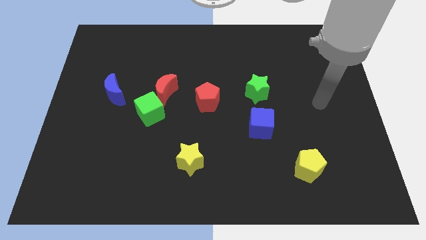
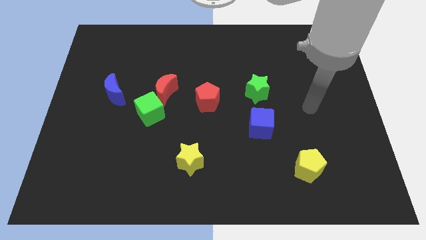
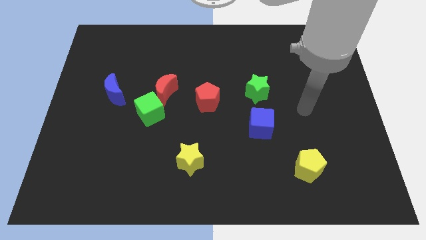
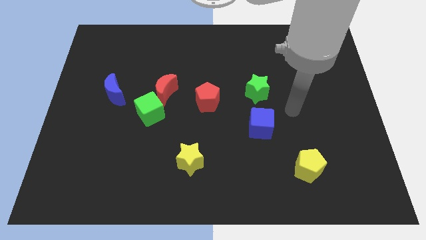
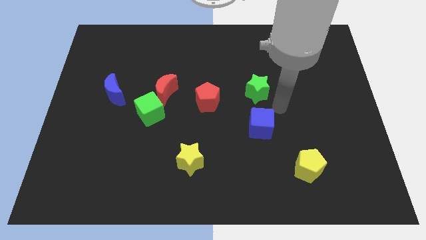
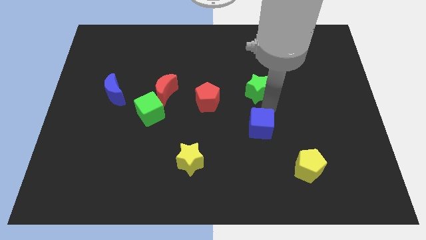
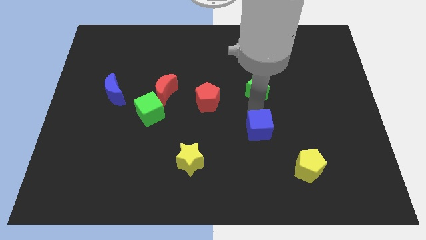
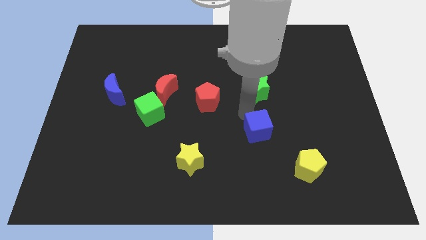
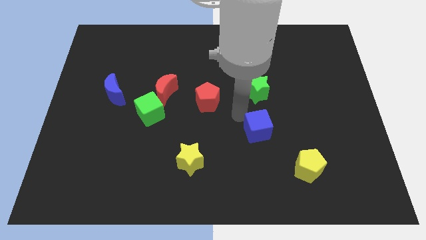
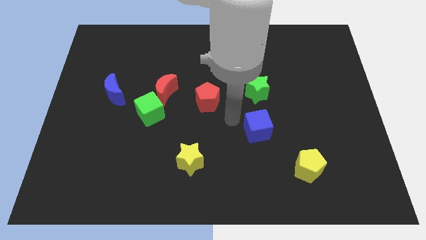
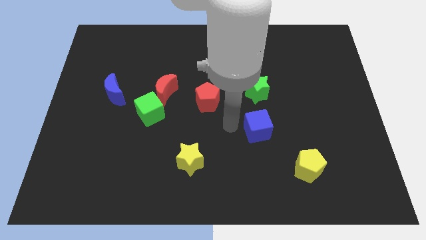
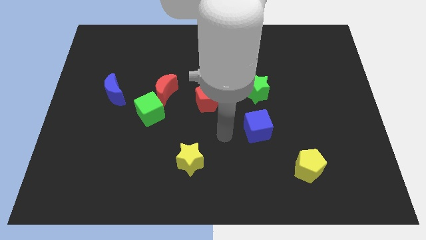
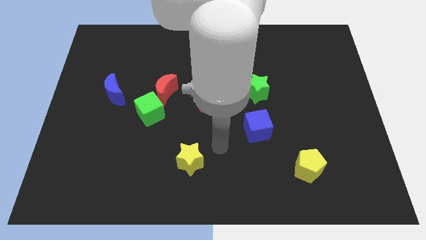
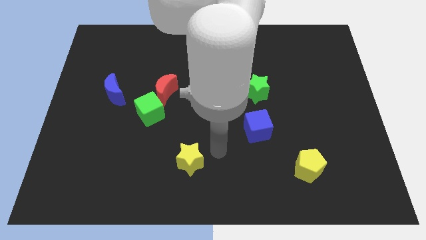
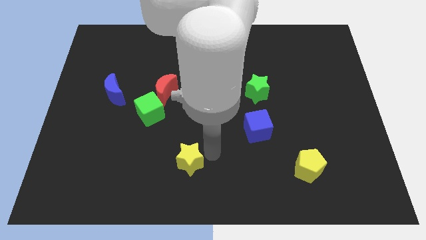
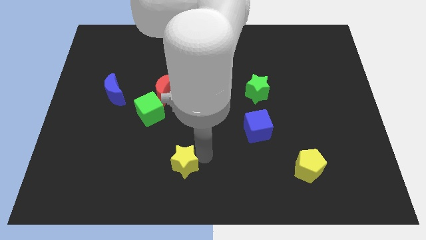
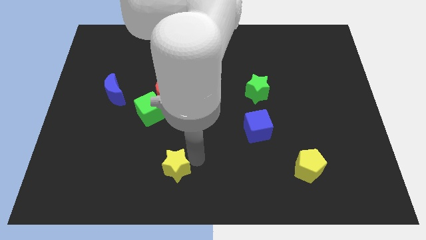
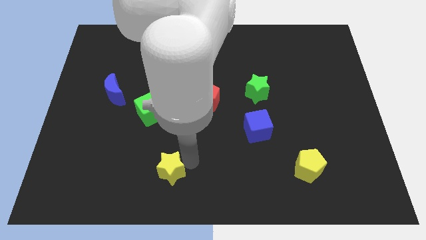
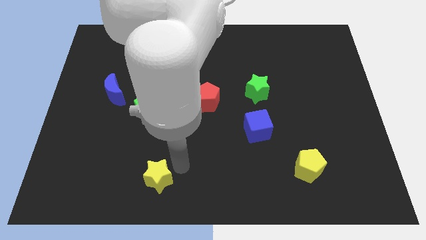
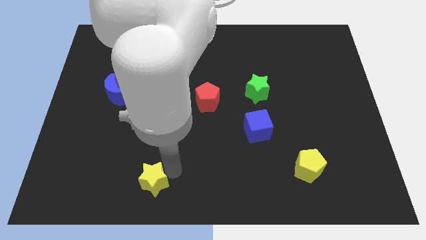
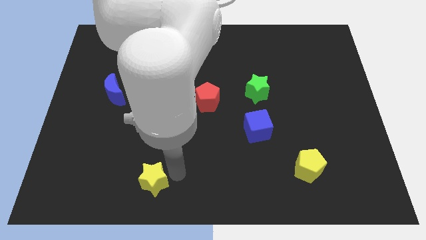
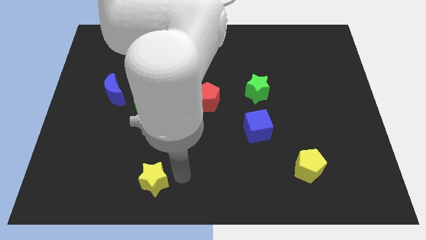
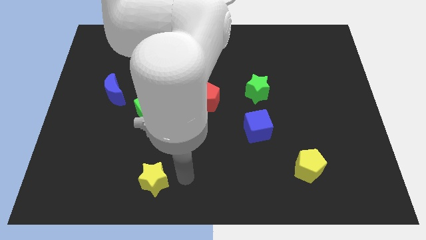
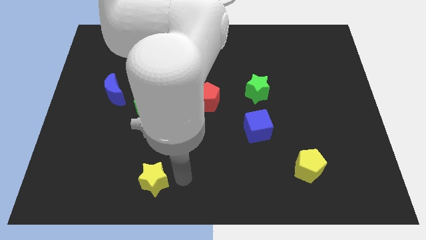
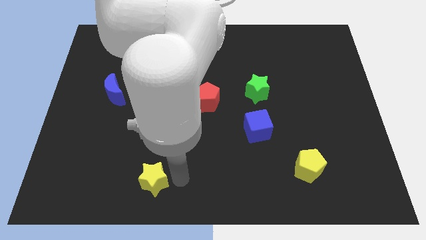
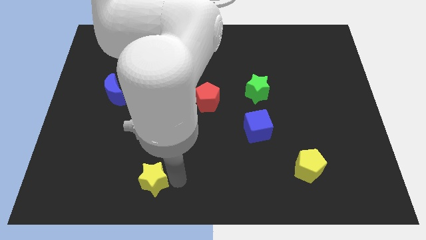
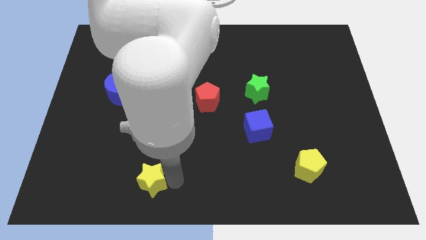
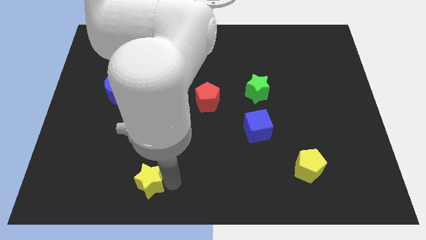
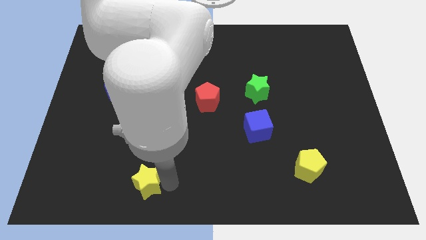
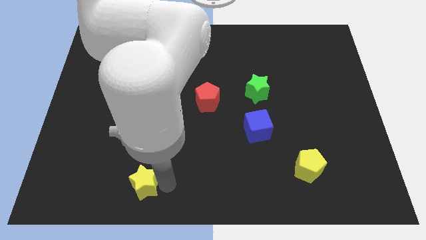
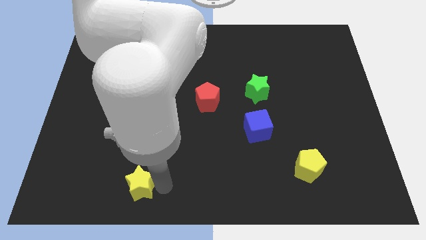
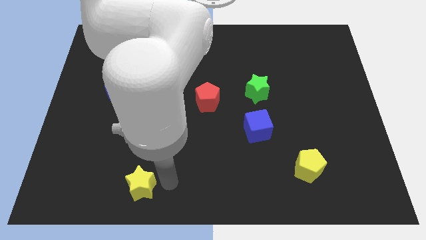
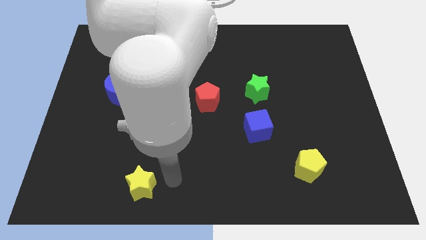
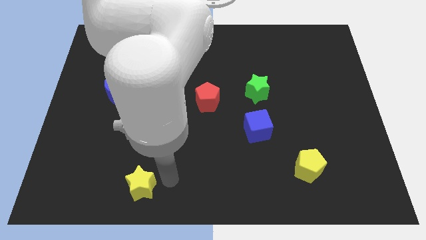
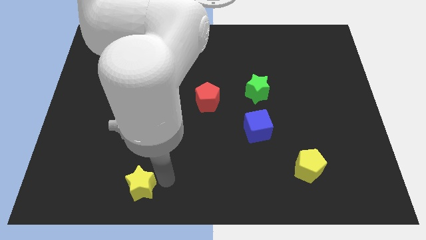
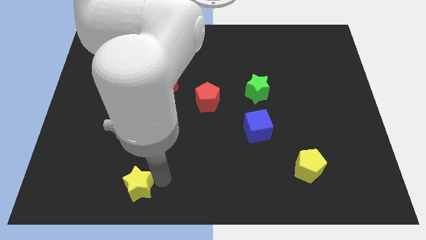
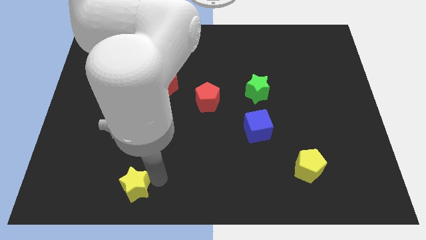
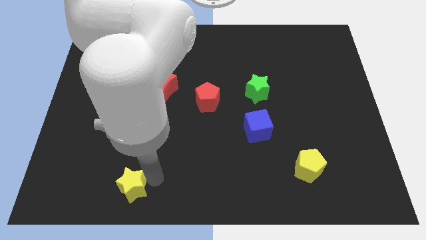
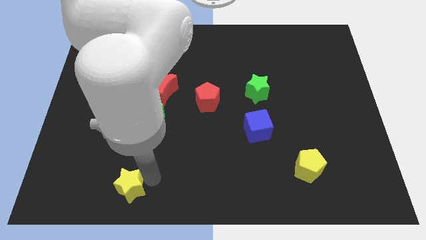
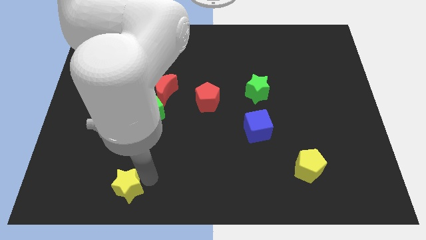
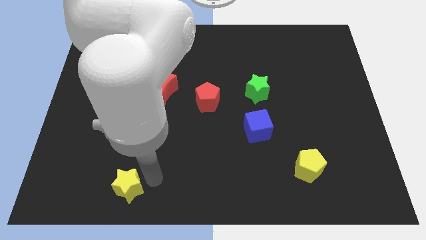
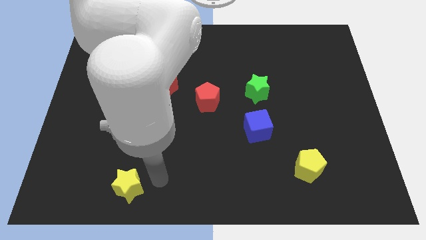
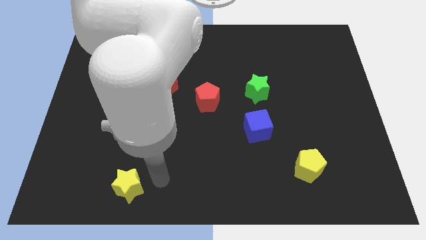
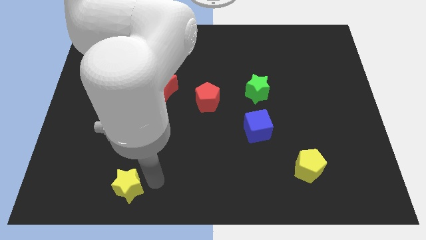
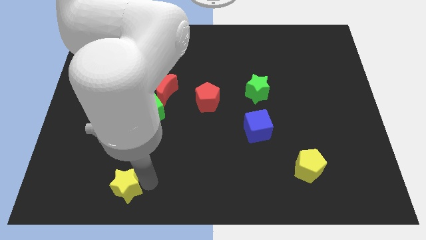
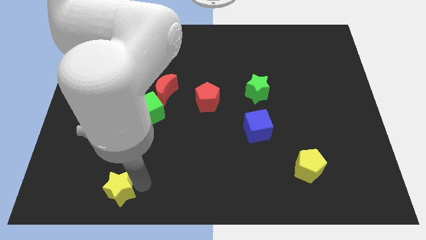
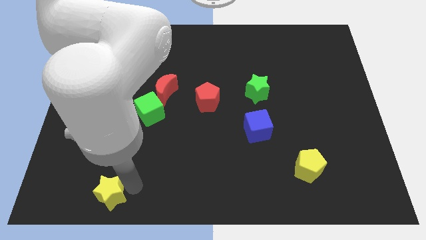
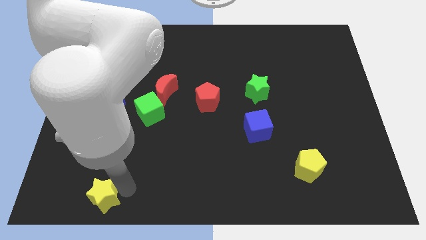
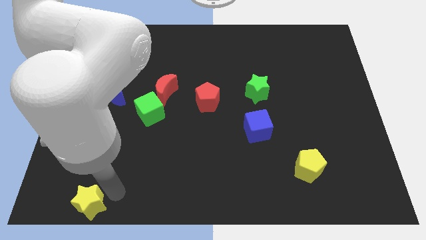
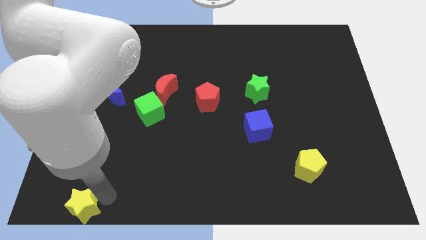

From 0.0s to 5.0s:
push the yellow star to the bottom left corner

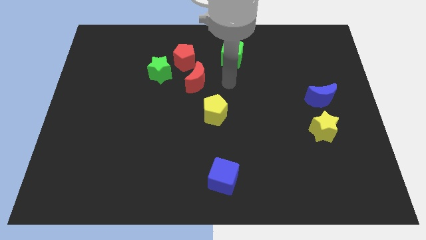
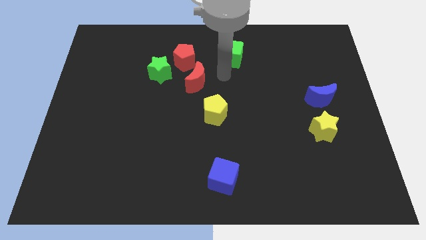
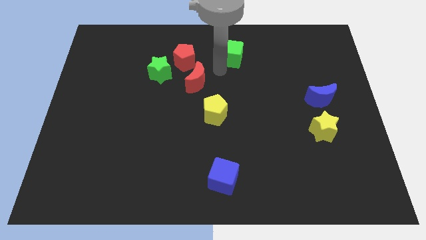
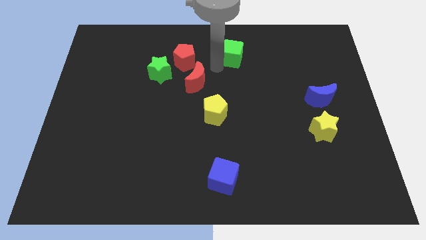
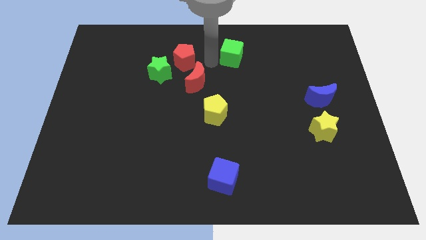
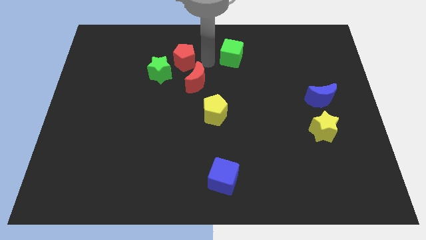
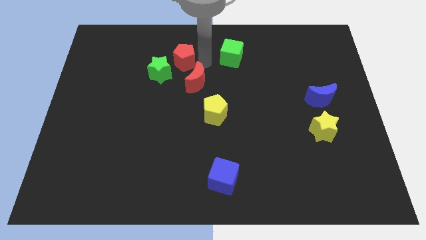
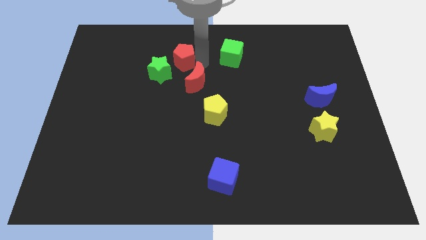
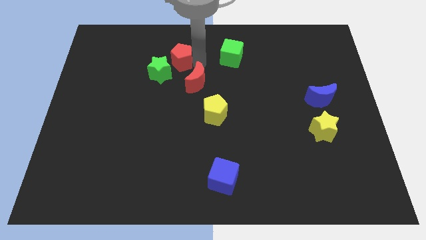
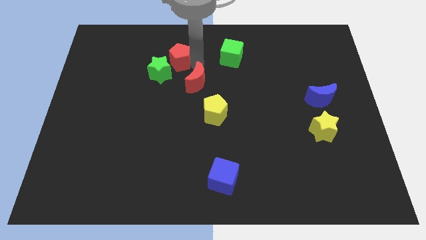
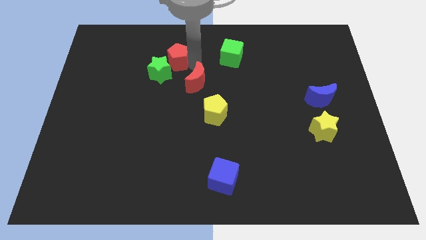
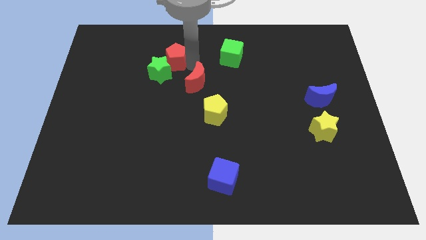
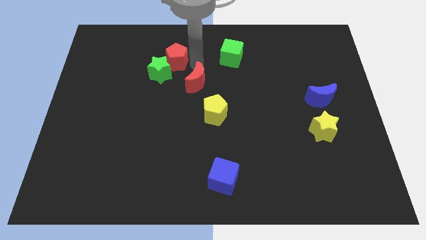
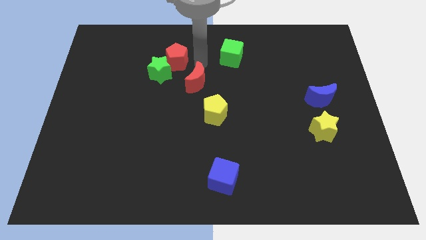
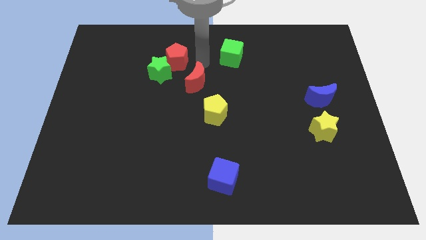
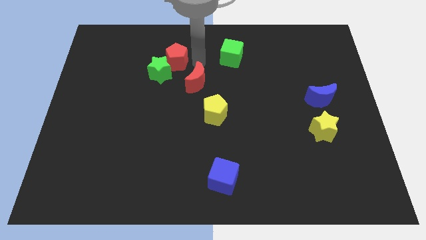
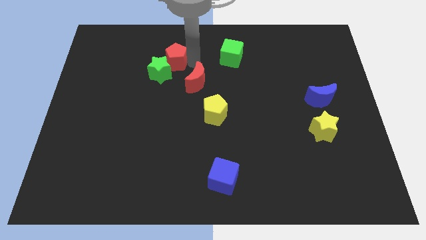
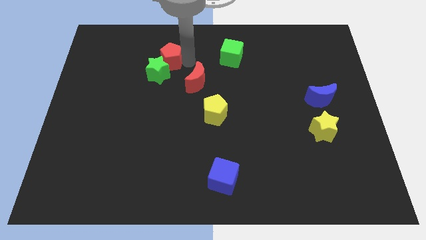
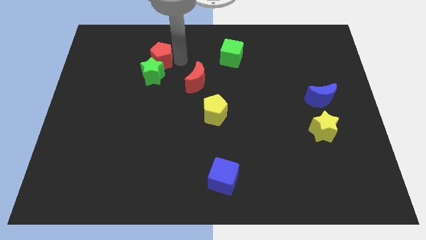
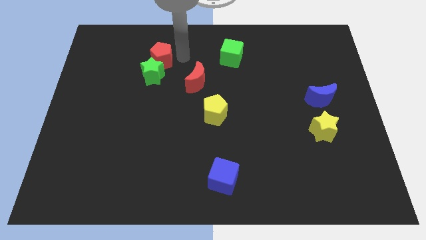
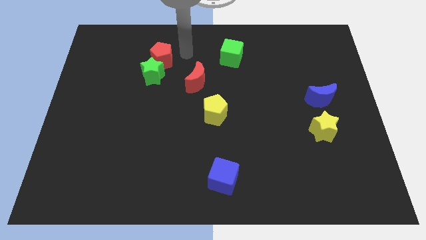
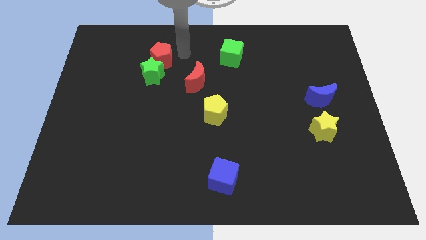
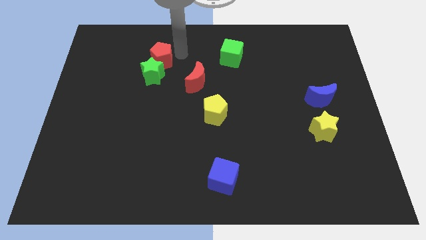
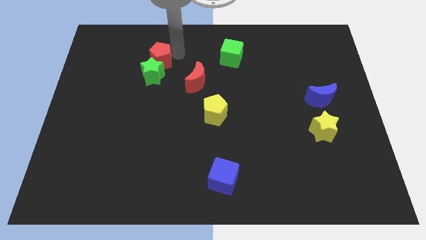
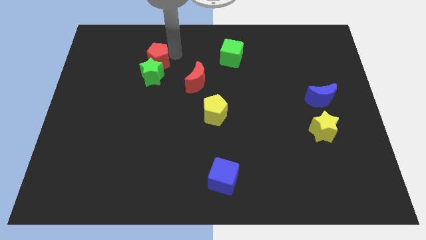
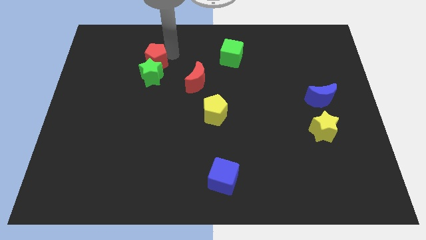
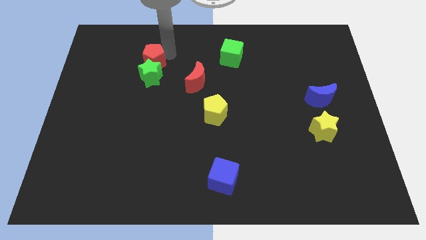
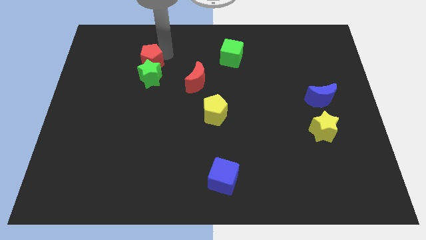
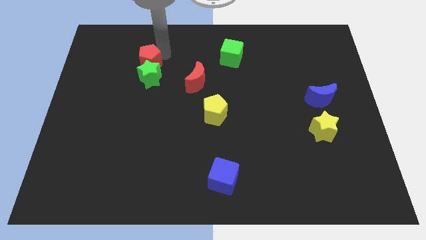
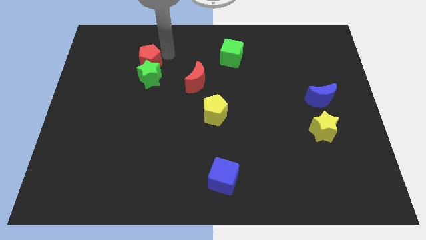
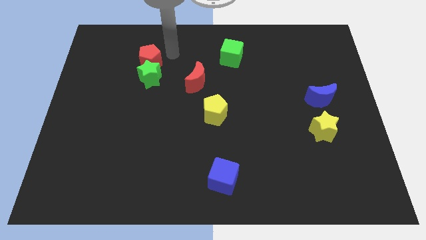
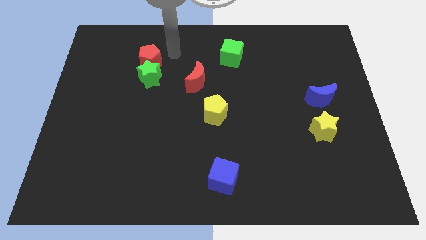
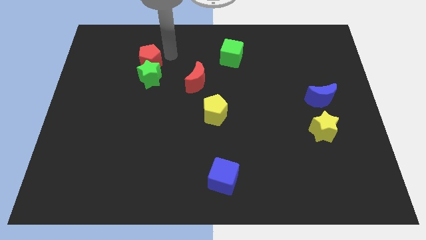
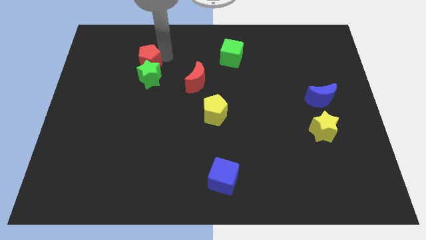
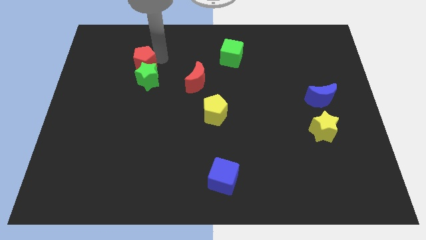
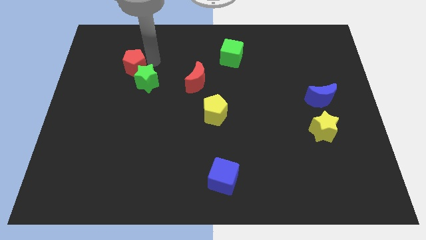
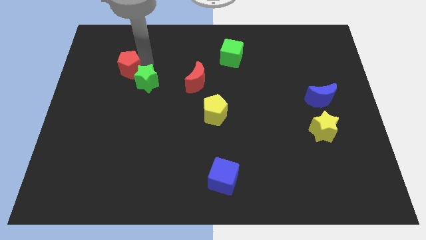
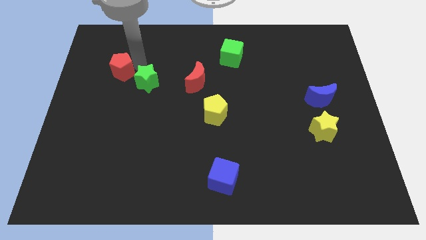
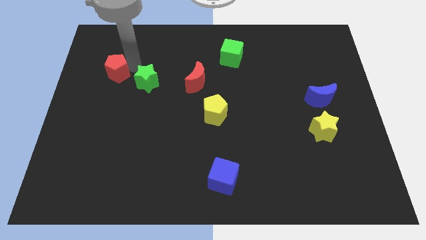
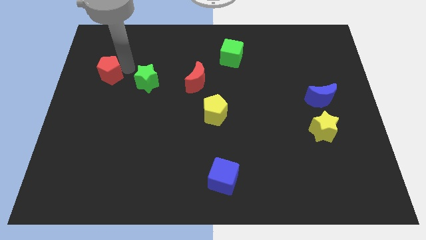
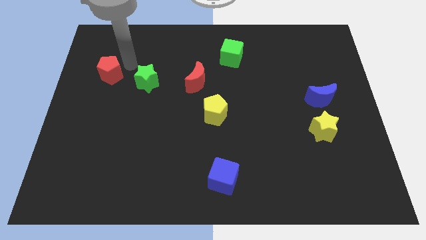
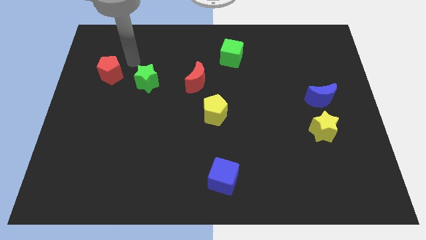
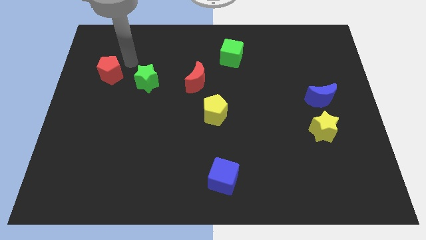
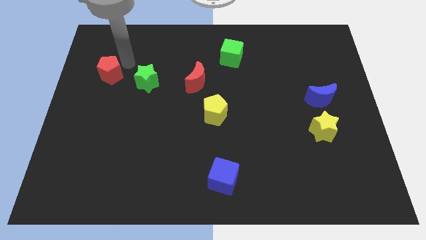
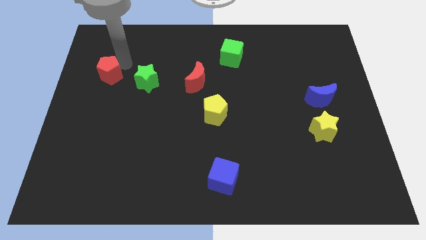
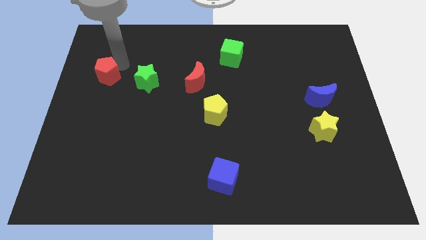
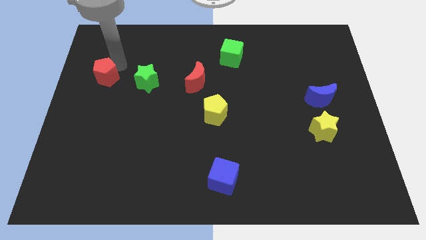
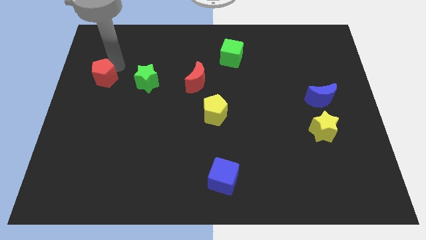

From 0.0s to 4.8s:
push the red pentagon to the left side
